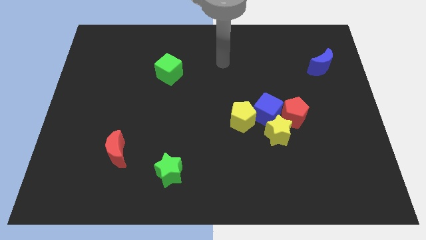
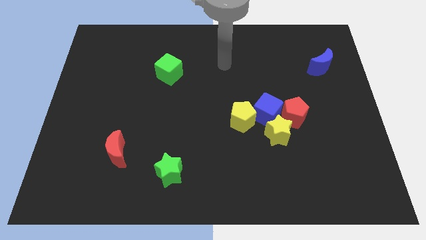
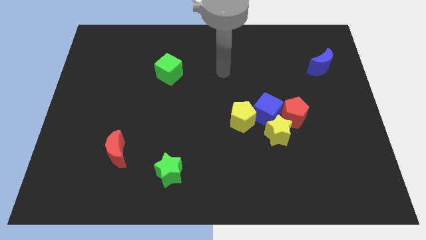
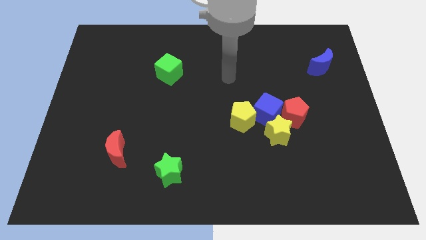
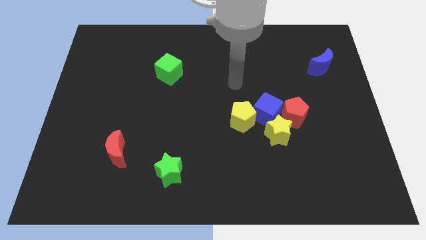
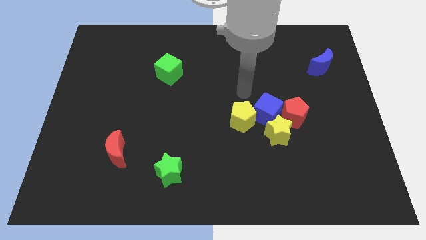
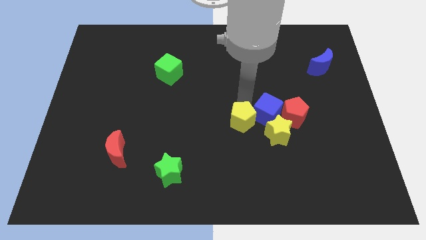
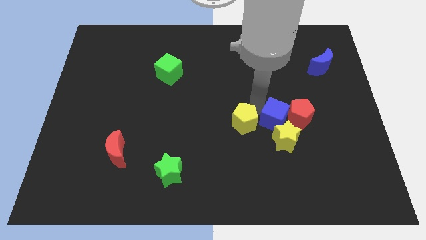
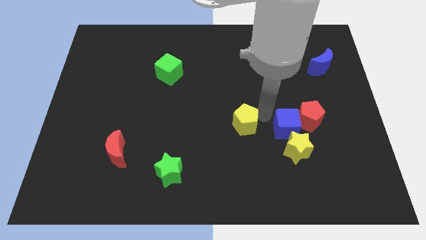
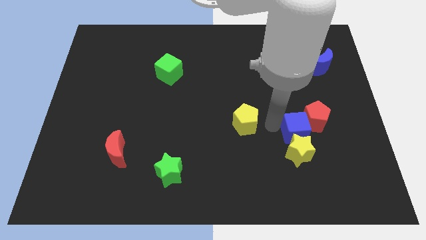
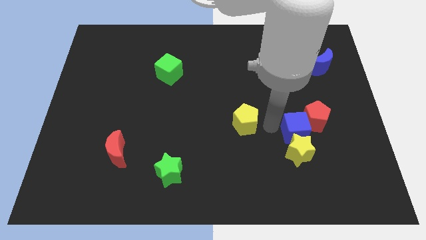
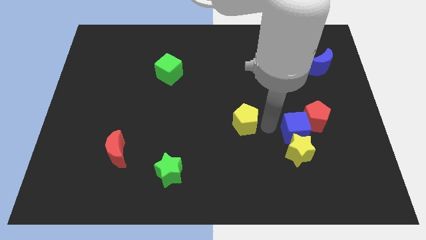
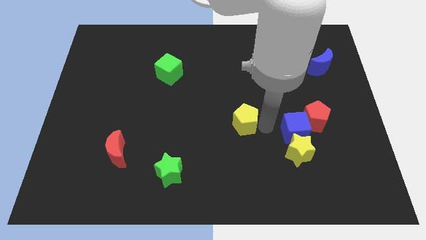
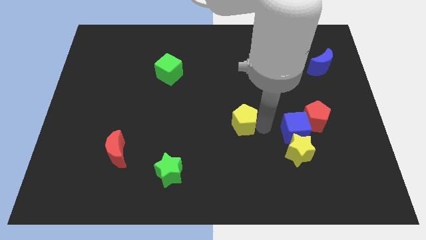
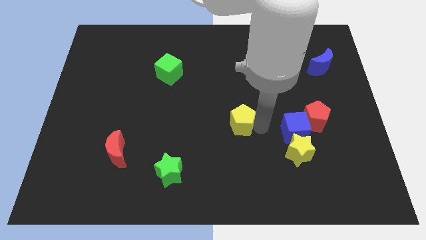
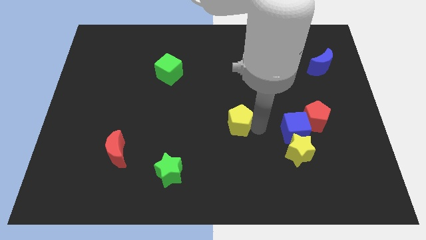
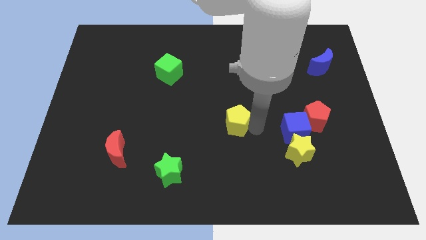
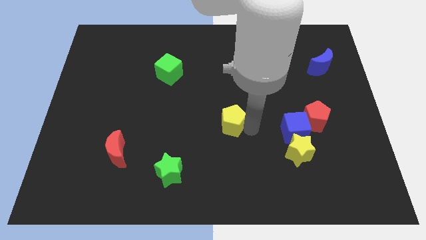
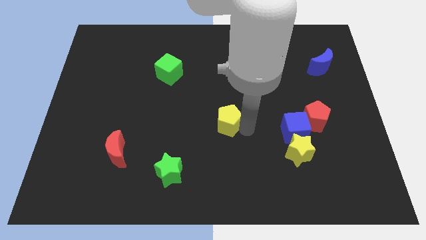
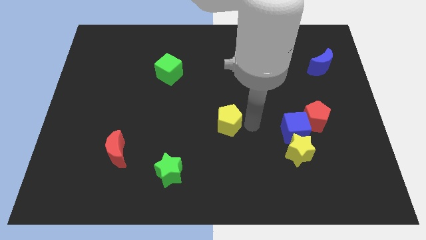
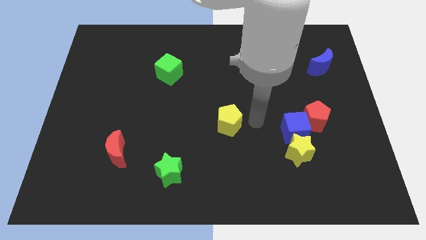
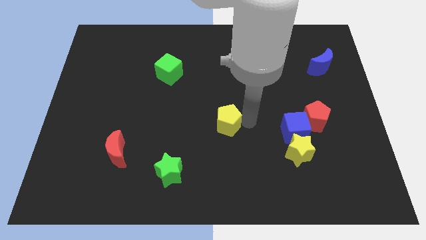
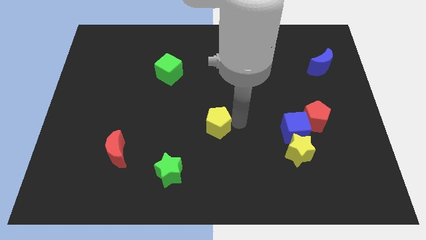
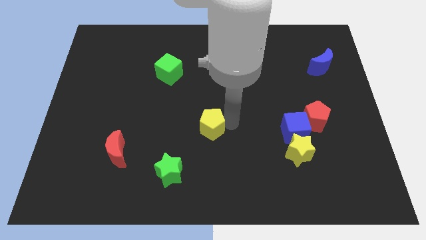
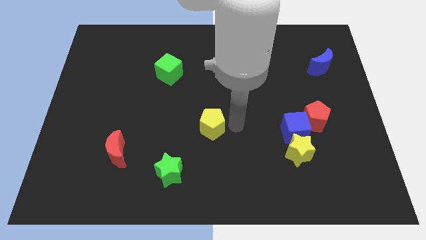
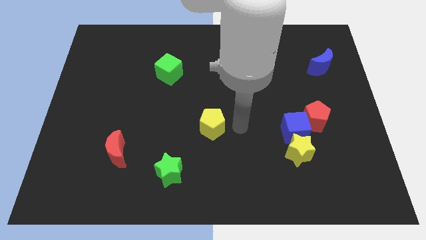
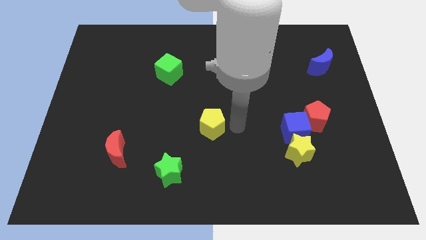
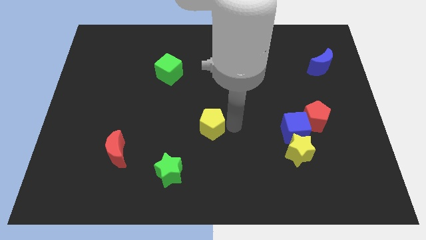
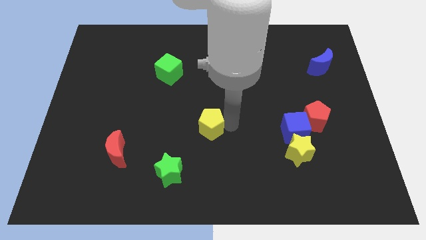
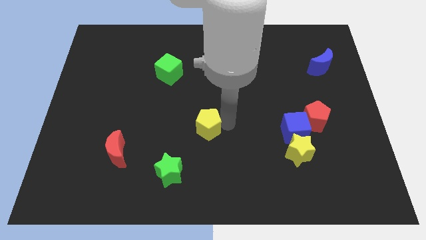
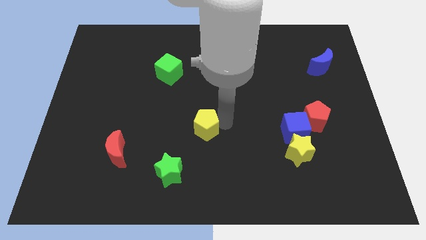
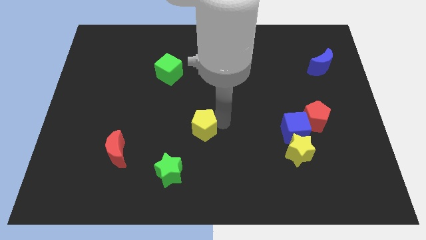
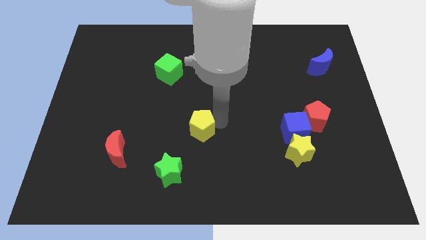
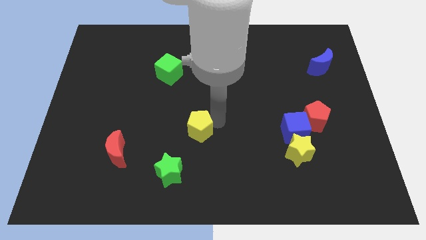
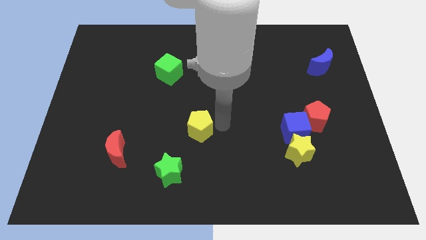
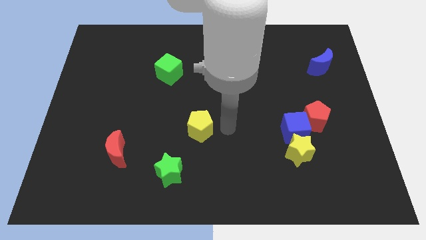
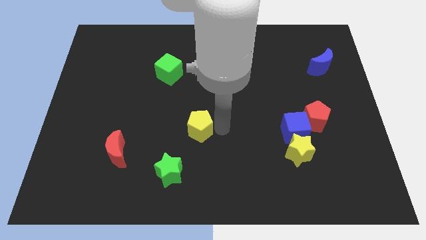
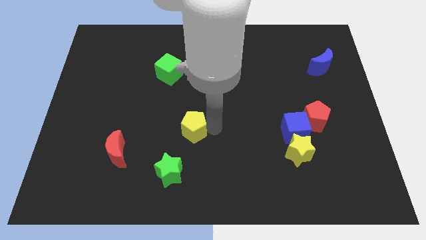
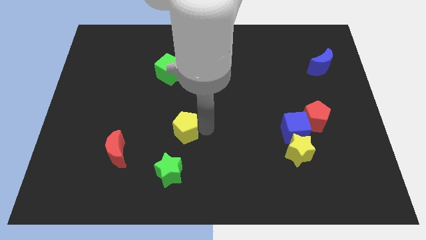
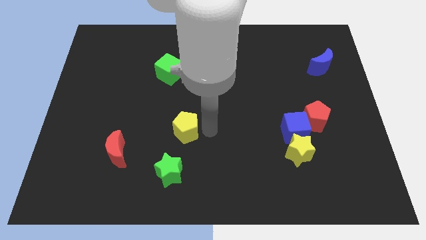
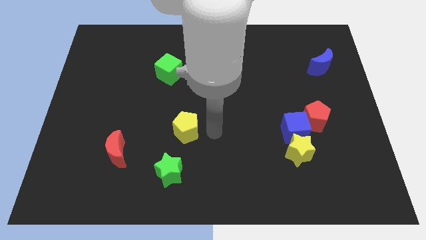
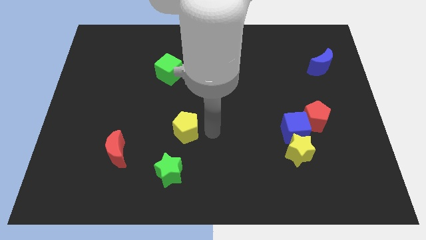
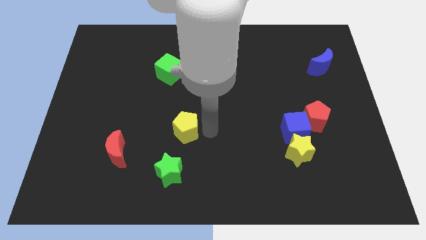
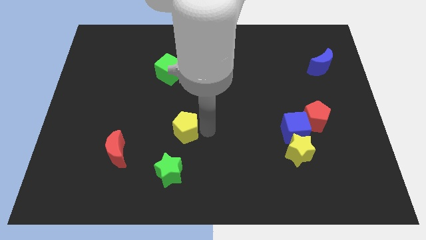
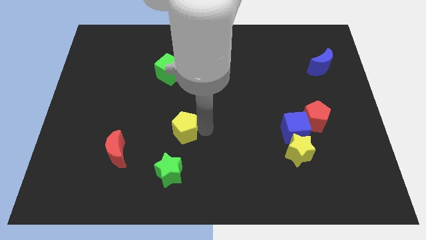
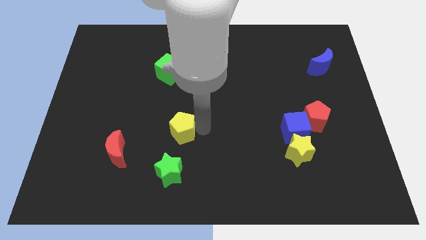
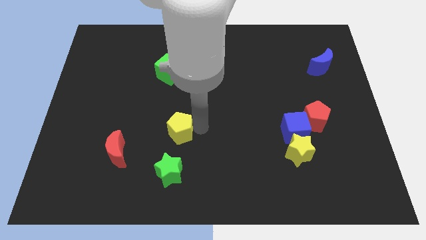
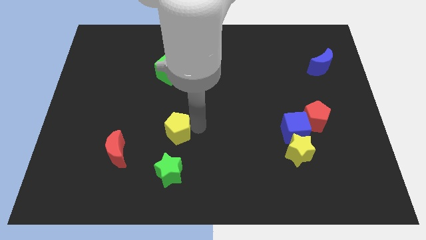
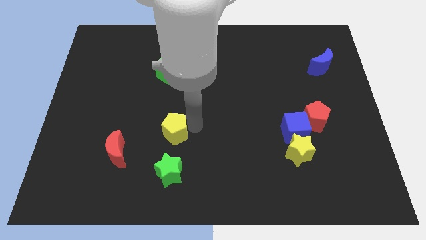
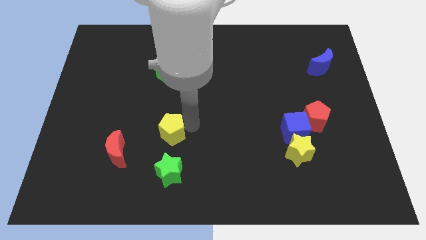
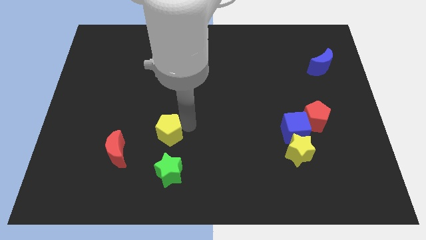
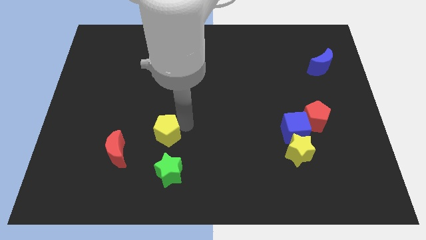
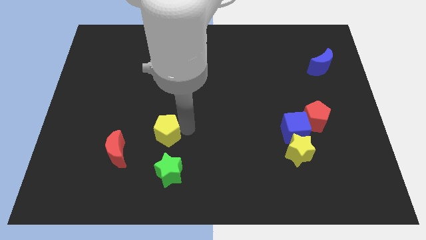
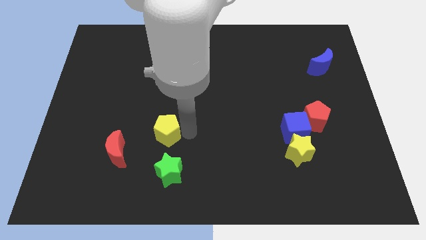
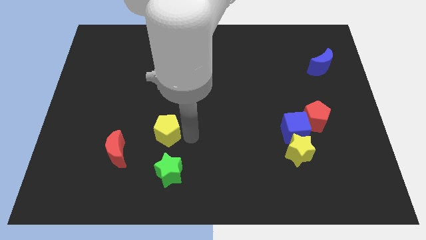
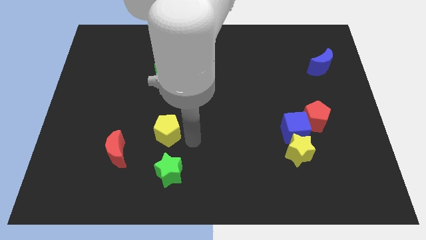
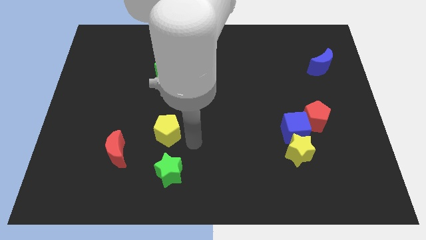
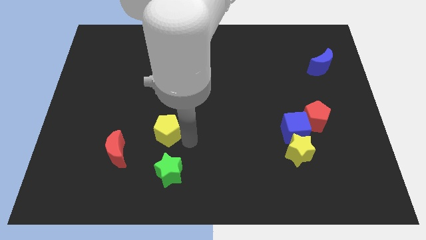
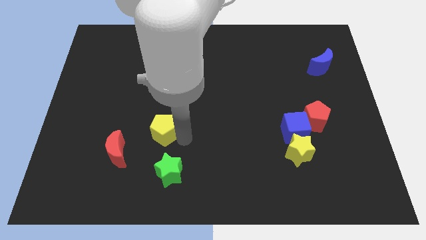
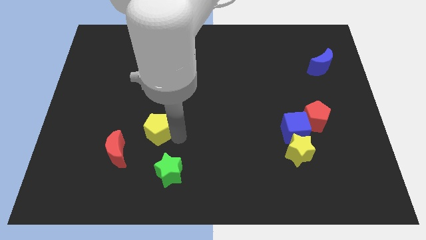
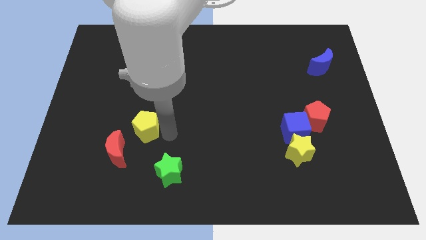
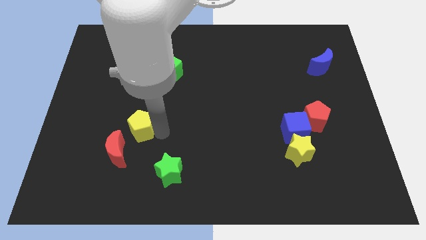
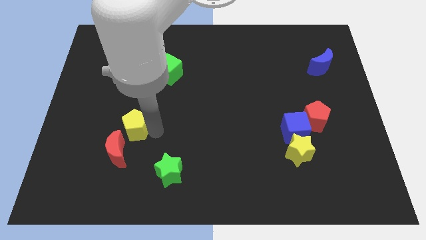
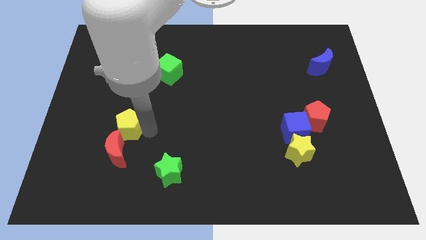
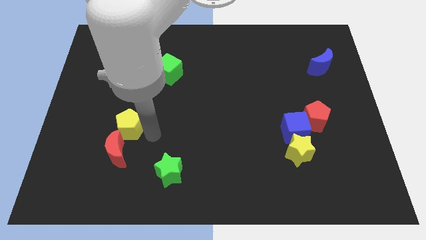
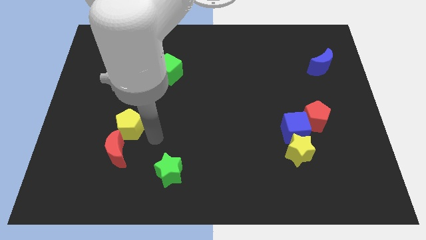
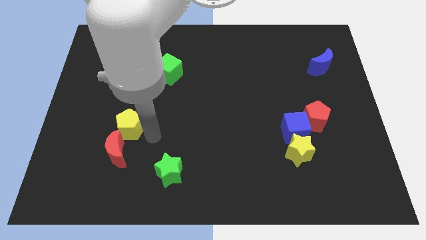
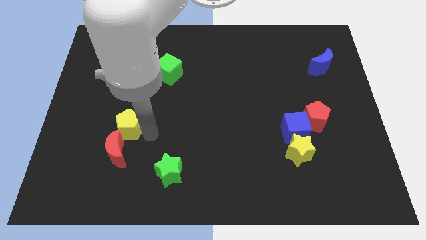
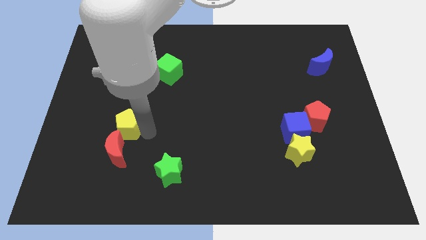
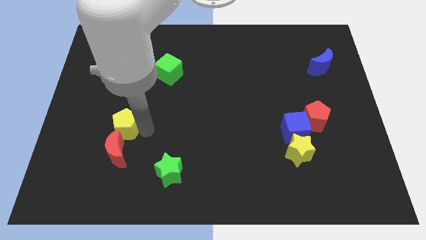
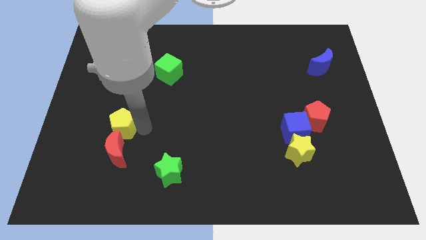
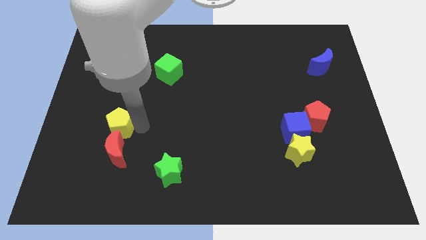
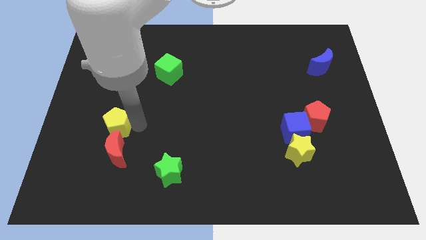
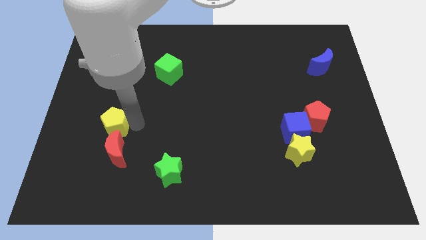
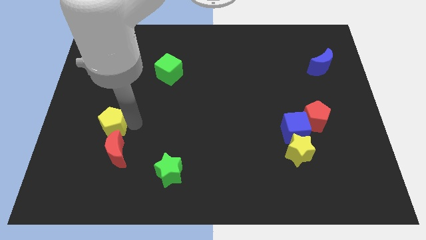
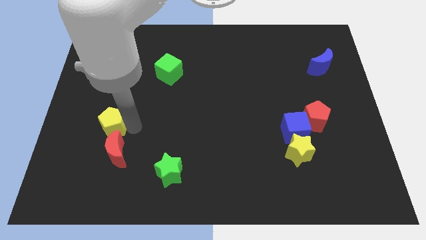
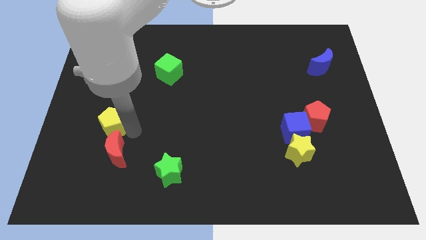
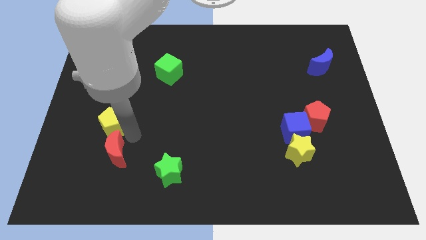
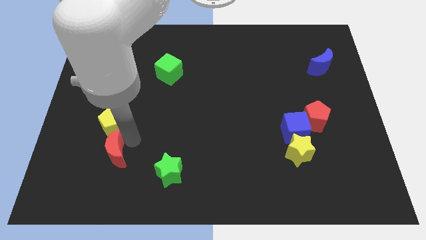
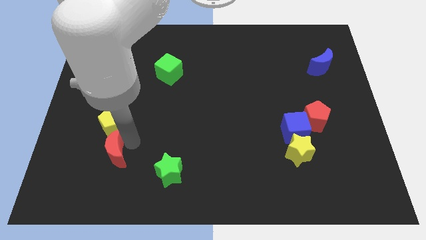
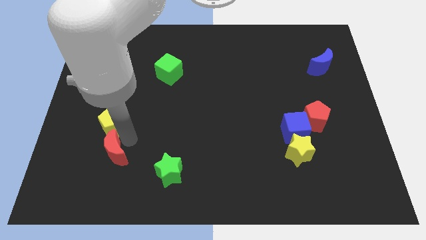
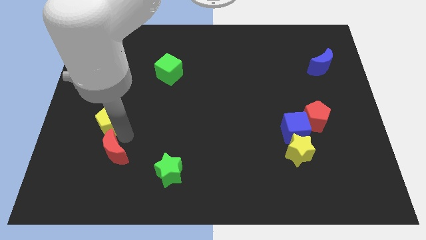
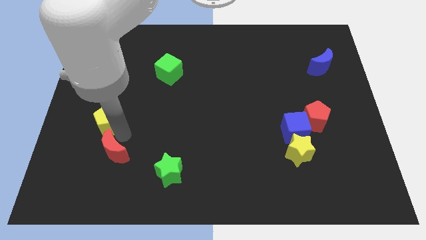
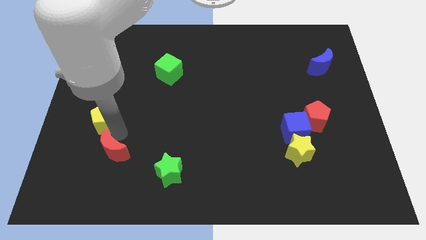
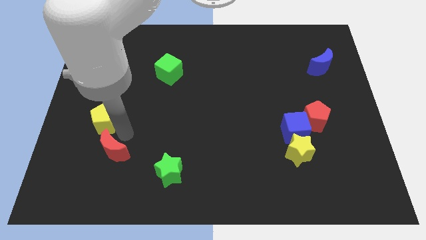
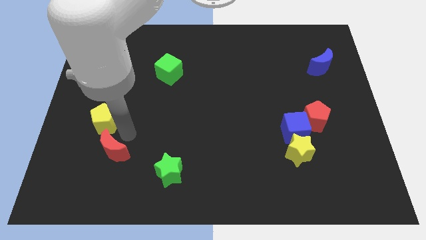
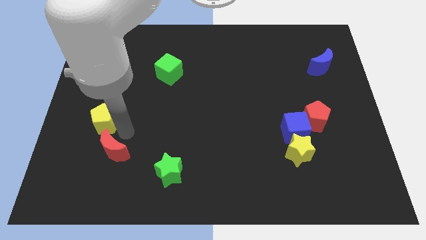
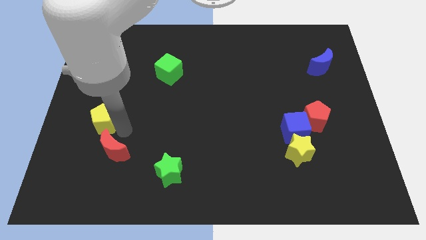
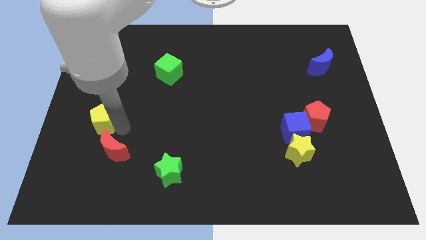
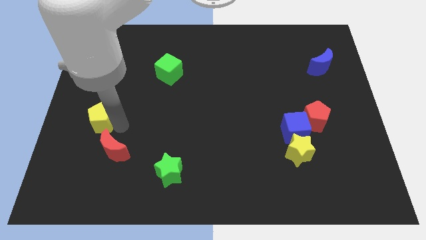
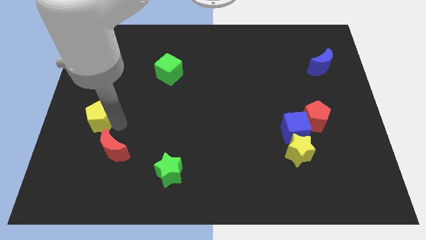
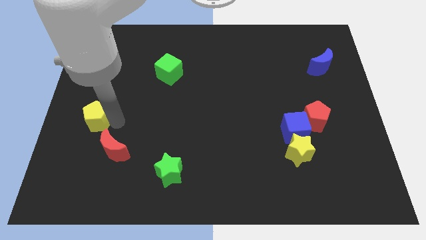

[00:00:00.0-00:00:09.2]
move the yellow pentagon to the left side
